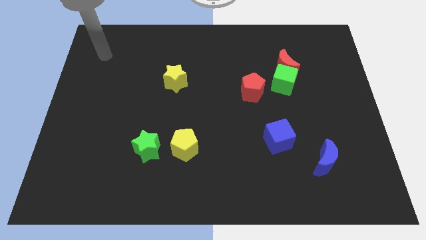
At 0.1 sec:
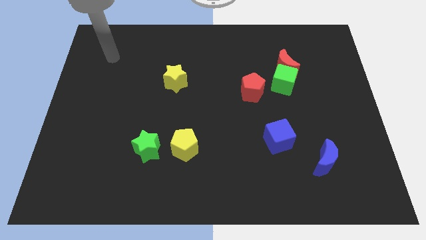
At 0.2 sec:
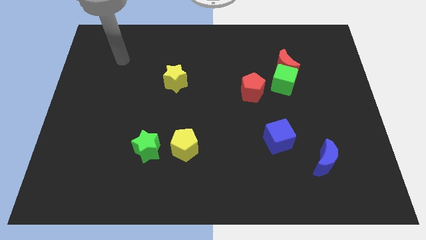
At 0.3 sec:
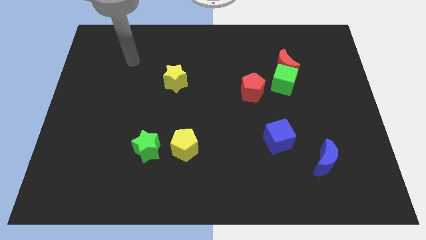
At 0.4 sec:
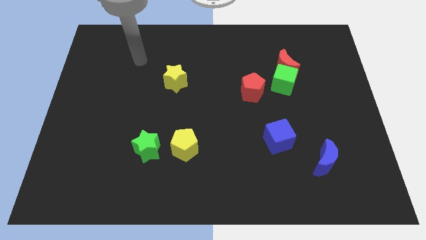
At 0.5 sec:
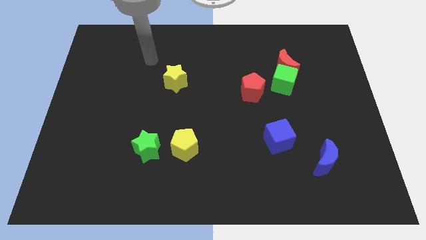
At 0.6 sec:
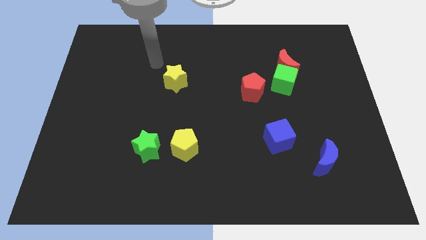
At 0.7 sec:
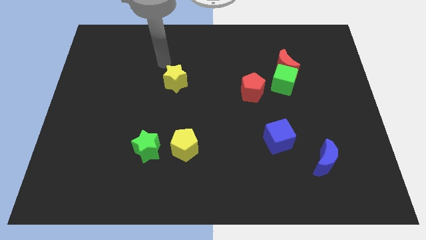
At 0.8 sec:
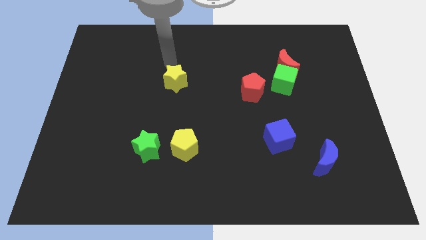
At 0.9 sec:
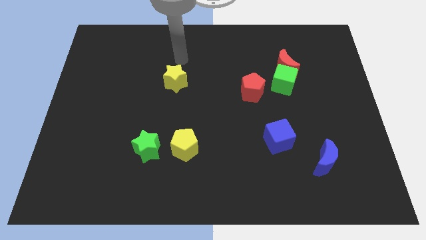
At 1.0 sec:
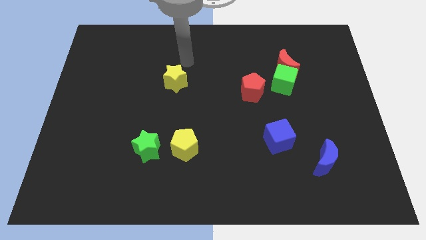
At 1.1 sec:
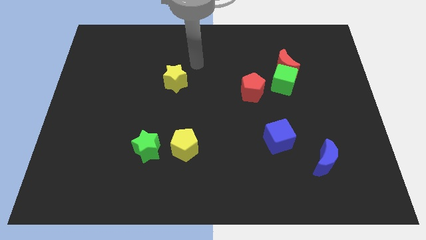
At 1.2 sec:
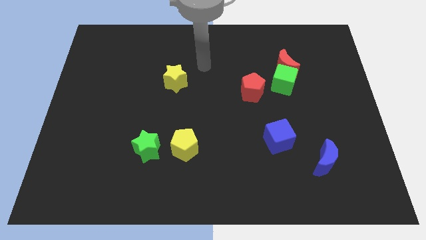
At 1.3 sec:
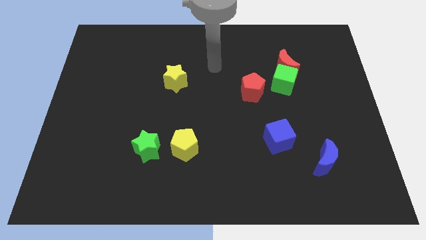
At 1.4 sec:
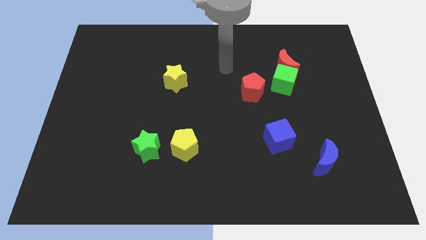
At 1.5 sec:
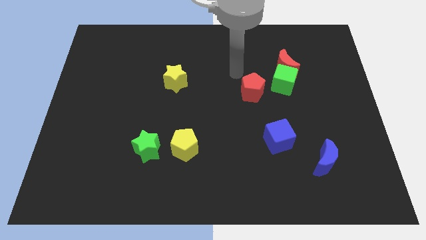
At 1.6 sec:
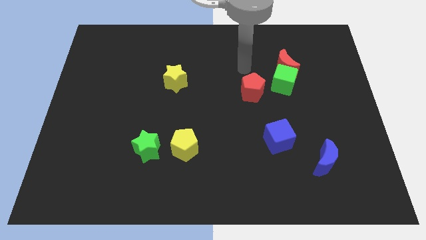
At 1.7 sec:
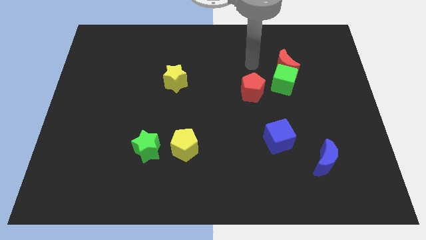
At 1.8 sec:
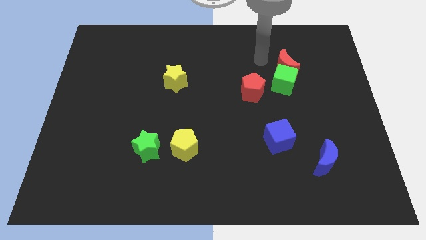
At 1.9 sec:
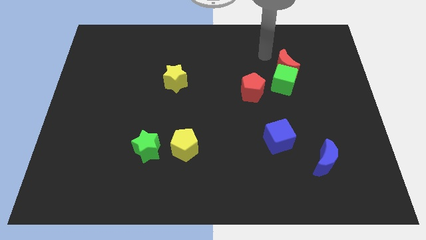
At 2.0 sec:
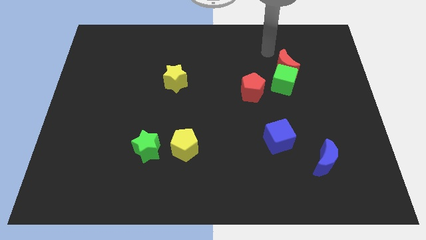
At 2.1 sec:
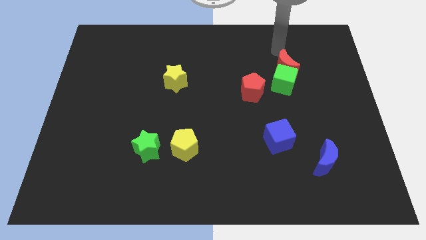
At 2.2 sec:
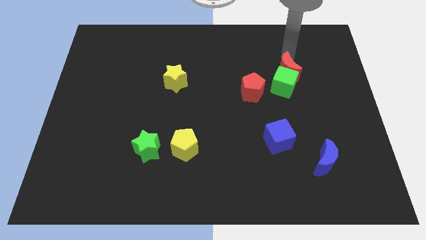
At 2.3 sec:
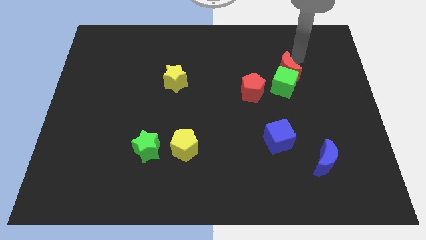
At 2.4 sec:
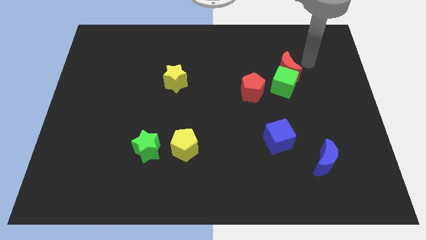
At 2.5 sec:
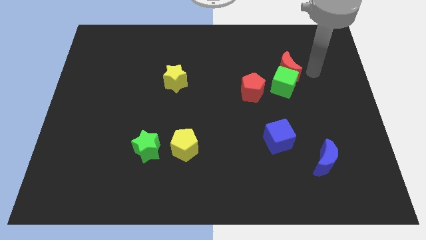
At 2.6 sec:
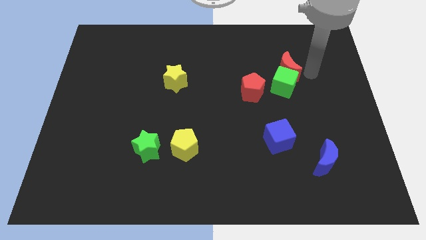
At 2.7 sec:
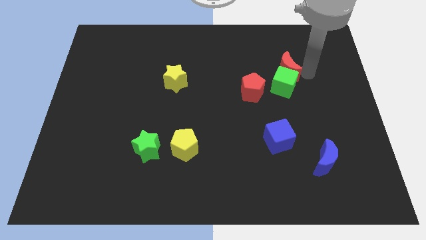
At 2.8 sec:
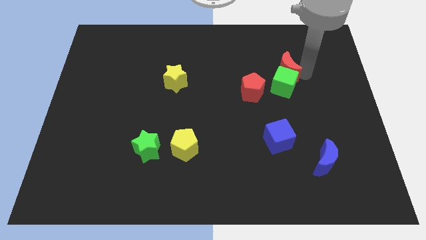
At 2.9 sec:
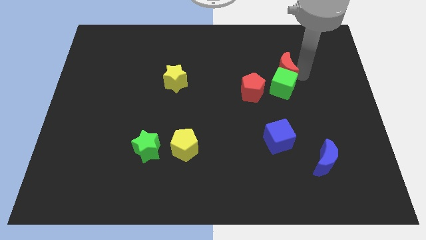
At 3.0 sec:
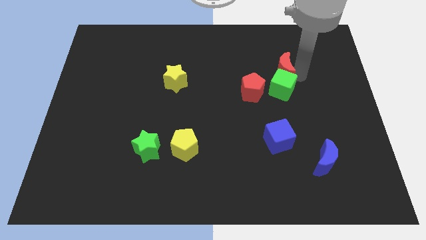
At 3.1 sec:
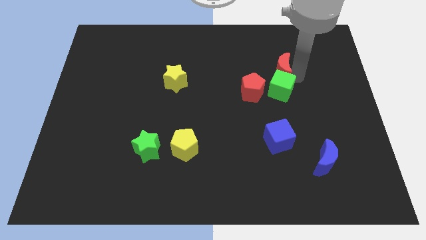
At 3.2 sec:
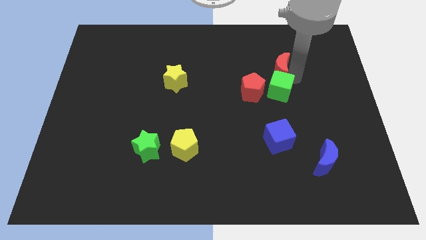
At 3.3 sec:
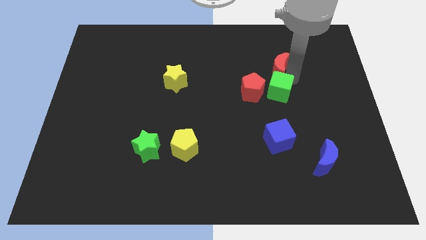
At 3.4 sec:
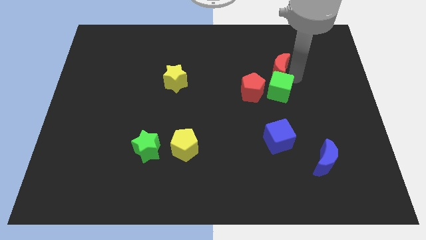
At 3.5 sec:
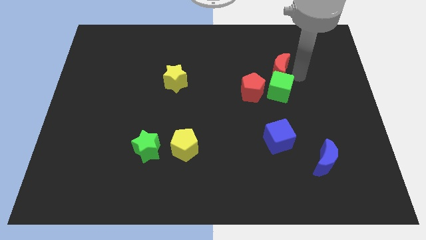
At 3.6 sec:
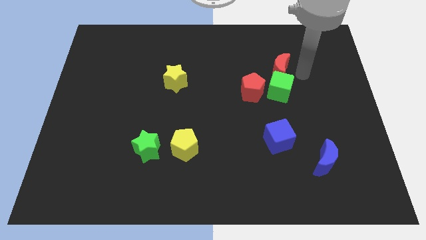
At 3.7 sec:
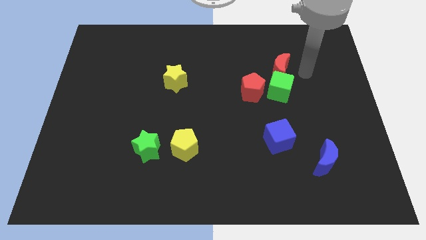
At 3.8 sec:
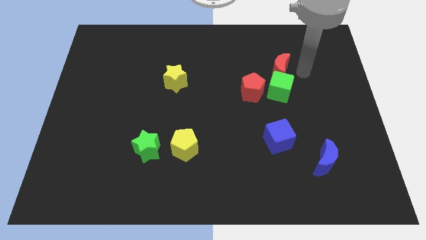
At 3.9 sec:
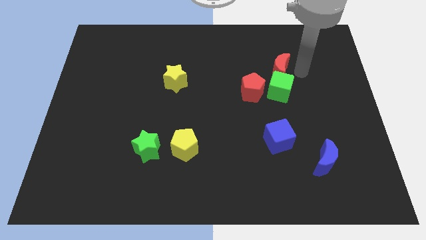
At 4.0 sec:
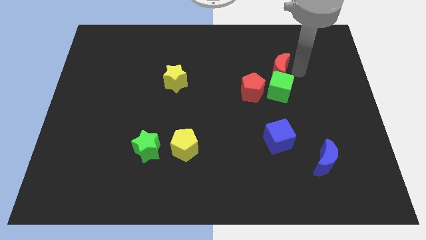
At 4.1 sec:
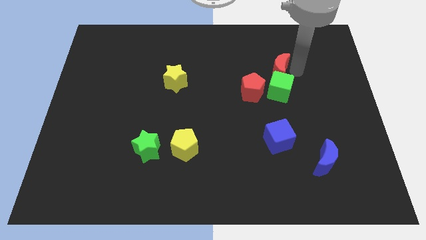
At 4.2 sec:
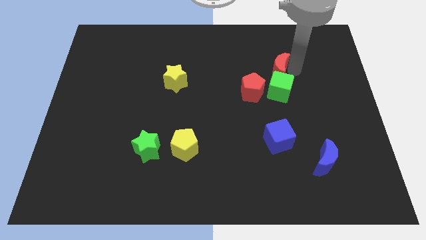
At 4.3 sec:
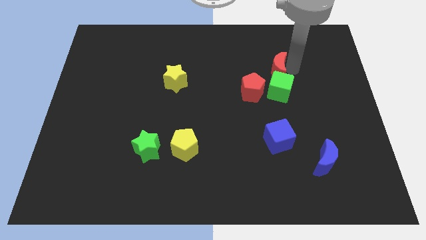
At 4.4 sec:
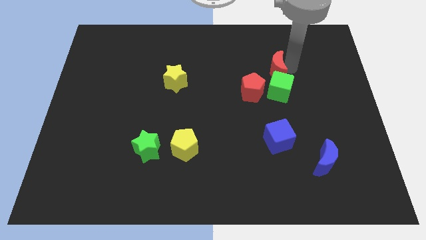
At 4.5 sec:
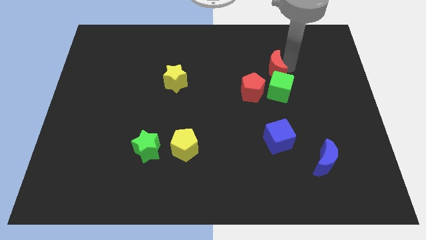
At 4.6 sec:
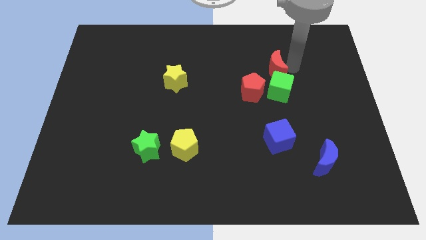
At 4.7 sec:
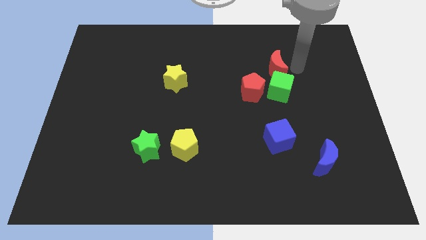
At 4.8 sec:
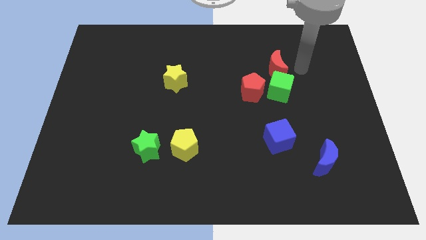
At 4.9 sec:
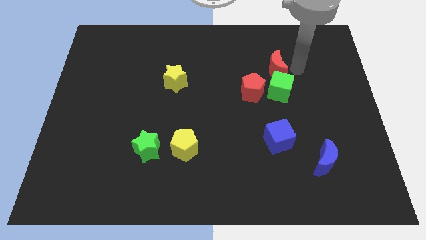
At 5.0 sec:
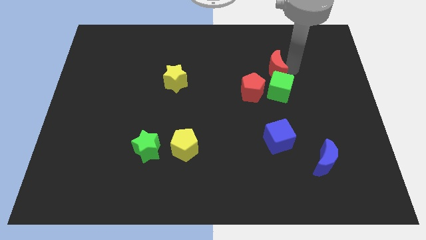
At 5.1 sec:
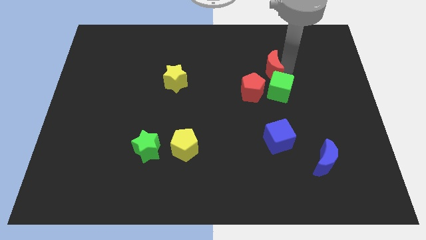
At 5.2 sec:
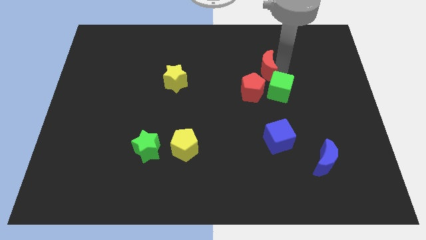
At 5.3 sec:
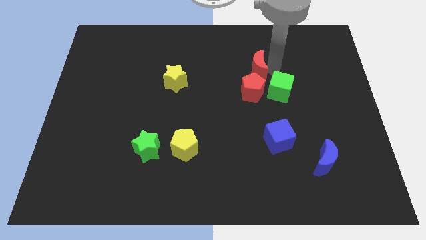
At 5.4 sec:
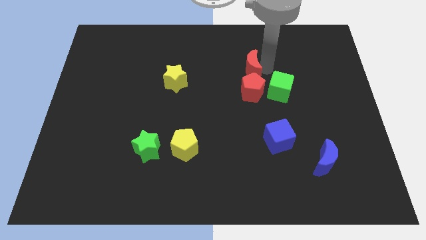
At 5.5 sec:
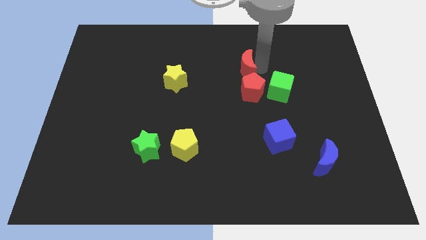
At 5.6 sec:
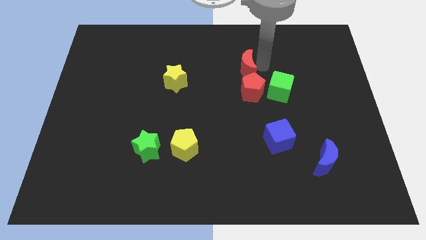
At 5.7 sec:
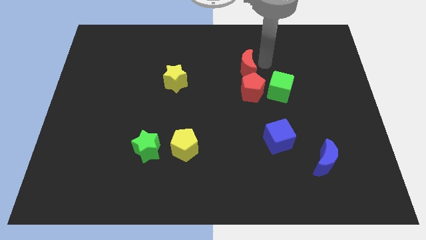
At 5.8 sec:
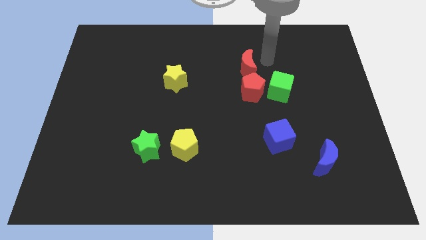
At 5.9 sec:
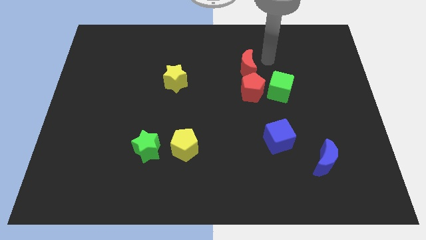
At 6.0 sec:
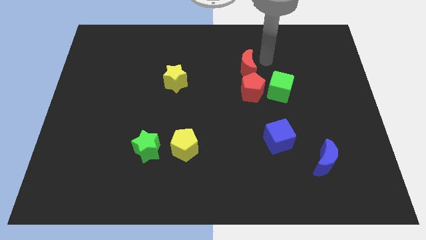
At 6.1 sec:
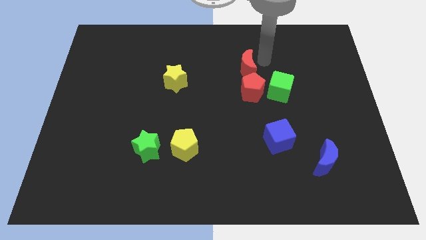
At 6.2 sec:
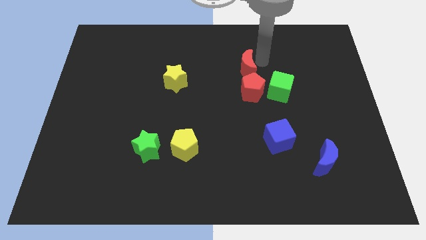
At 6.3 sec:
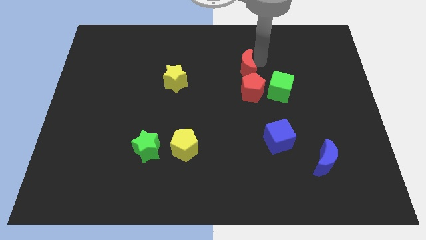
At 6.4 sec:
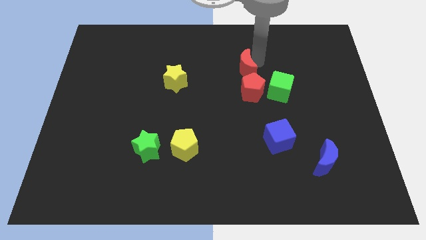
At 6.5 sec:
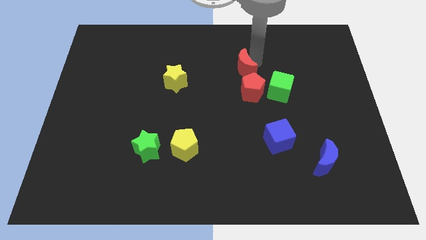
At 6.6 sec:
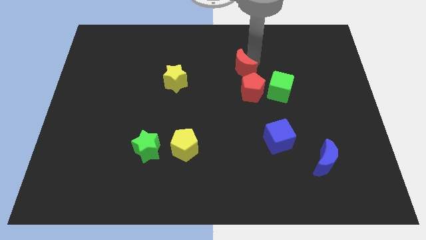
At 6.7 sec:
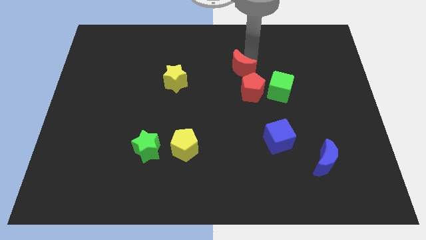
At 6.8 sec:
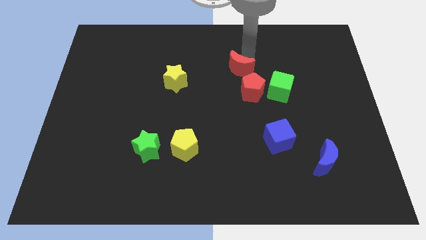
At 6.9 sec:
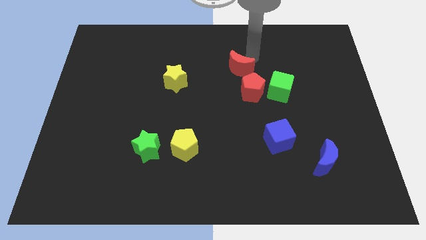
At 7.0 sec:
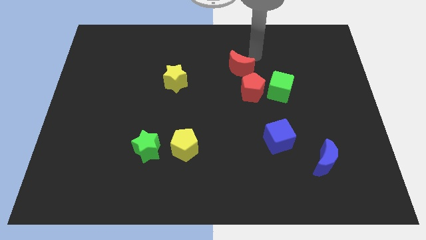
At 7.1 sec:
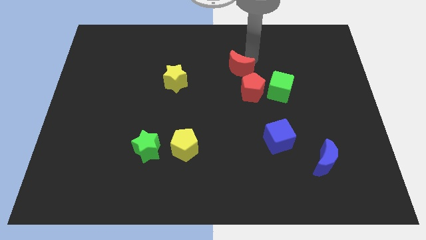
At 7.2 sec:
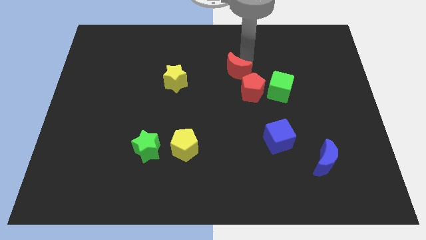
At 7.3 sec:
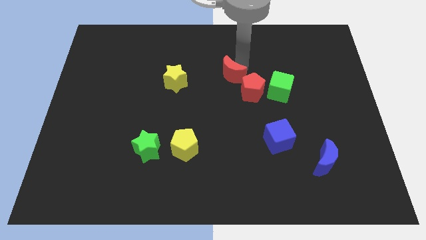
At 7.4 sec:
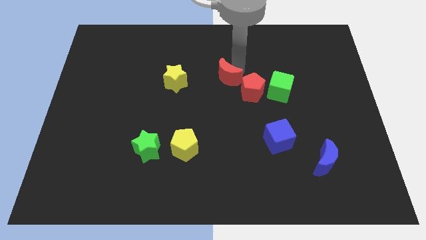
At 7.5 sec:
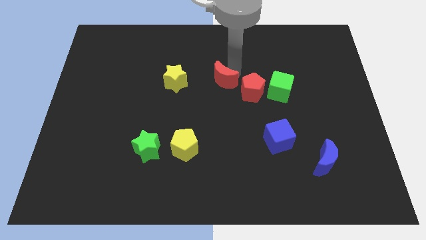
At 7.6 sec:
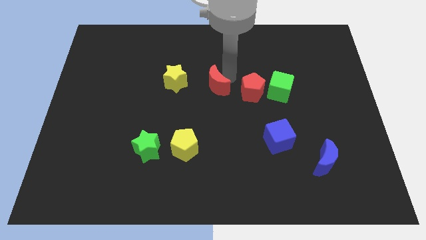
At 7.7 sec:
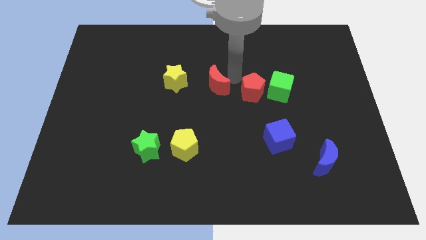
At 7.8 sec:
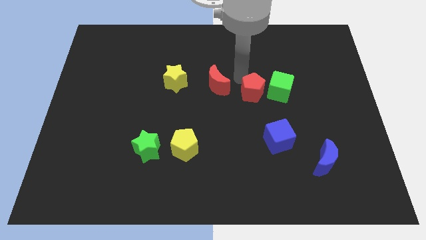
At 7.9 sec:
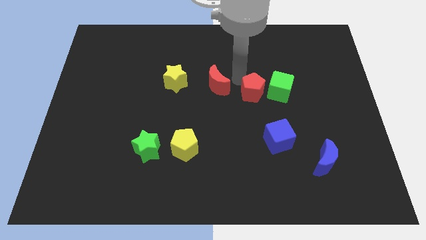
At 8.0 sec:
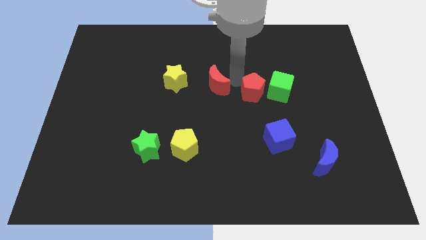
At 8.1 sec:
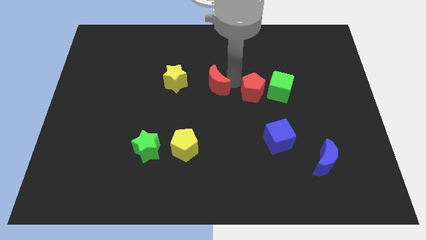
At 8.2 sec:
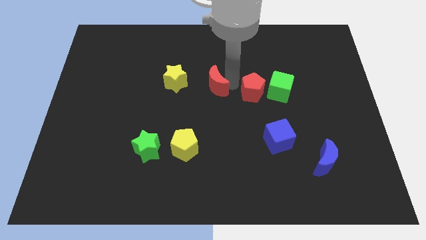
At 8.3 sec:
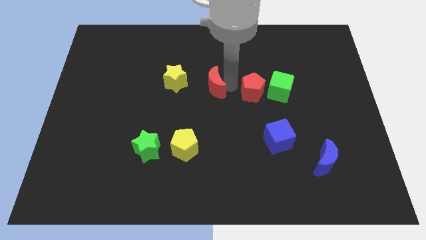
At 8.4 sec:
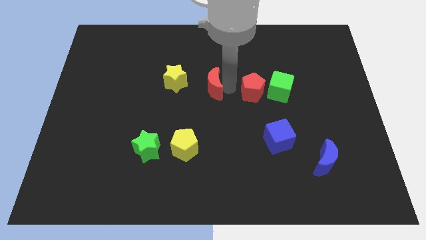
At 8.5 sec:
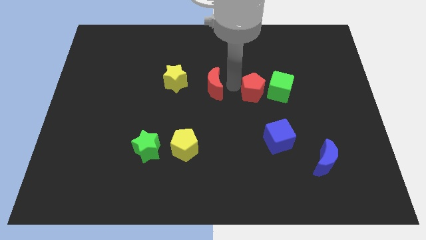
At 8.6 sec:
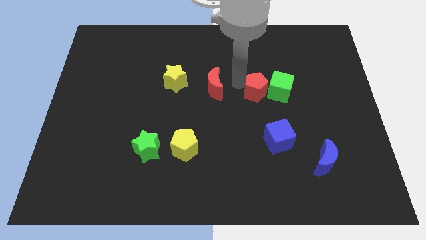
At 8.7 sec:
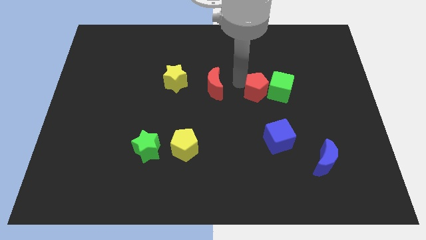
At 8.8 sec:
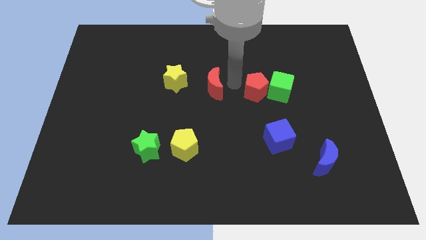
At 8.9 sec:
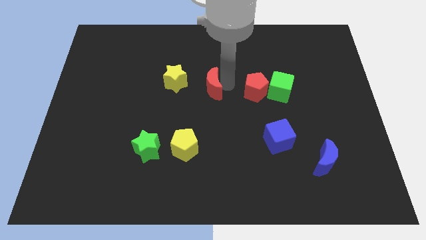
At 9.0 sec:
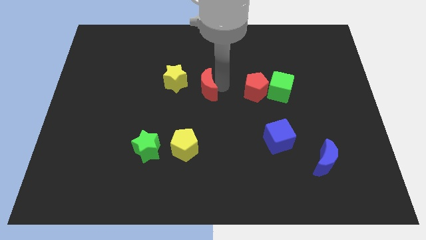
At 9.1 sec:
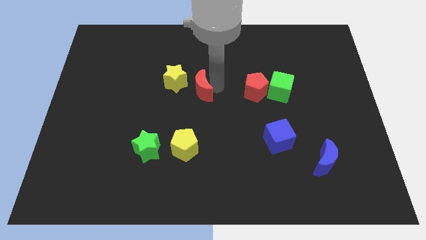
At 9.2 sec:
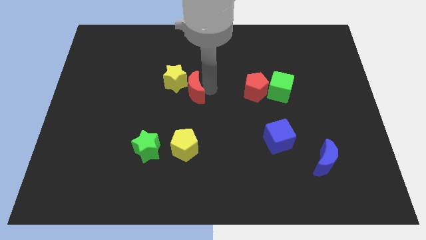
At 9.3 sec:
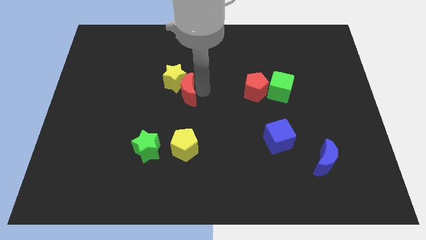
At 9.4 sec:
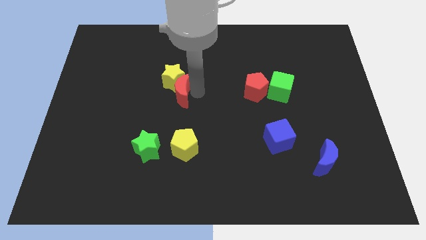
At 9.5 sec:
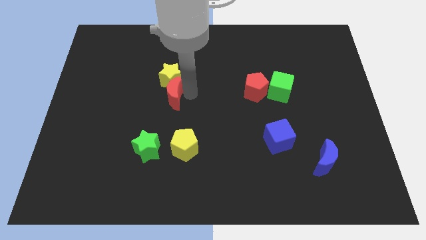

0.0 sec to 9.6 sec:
put the red moon to the bottom left of the yellow star
